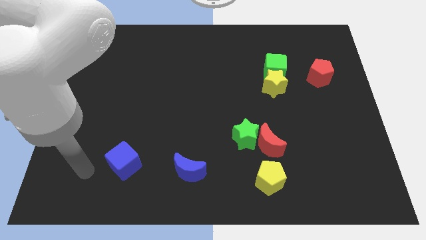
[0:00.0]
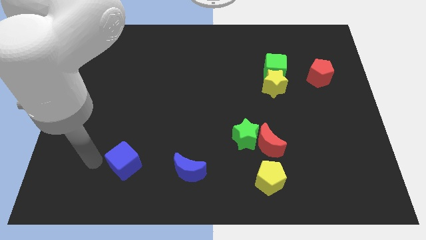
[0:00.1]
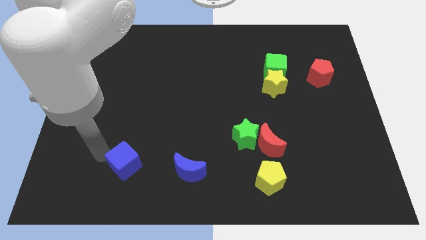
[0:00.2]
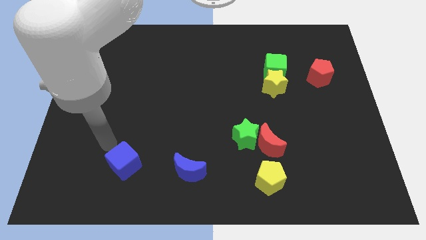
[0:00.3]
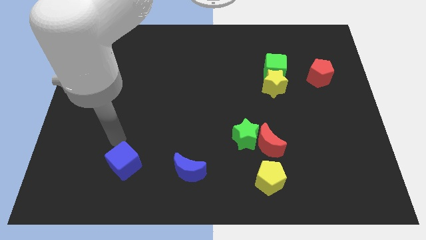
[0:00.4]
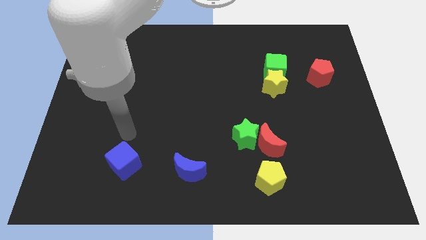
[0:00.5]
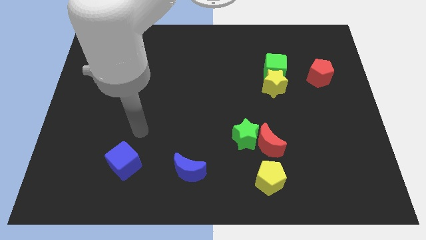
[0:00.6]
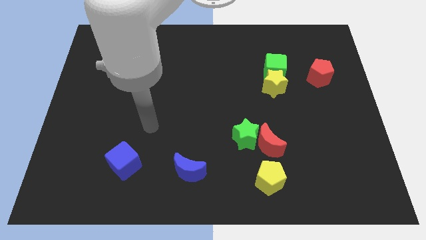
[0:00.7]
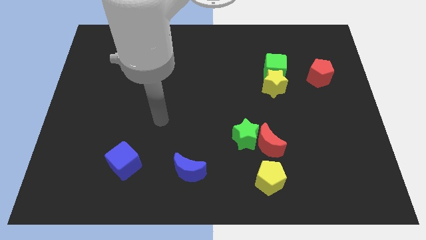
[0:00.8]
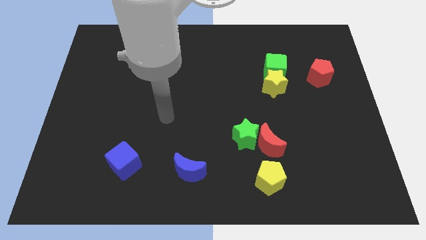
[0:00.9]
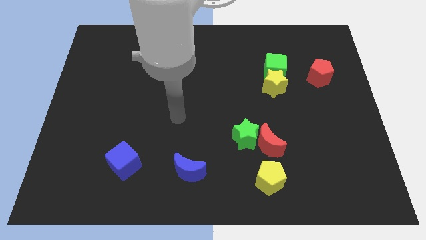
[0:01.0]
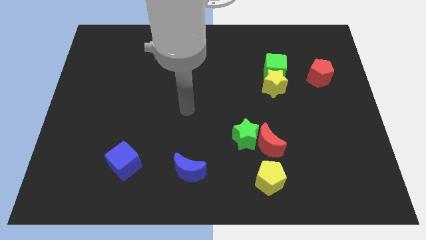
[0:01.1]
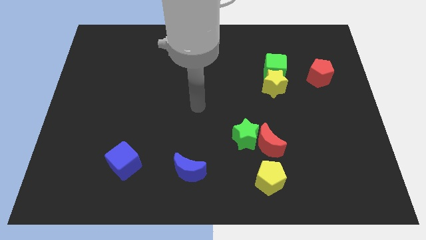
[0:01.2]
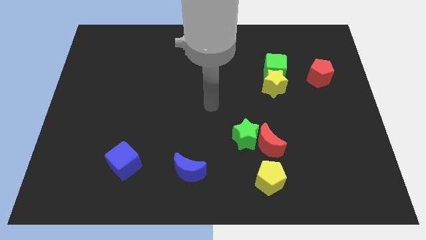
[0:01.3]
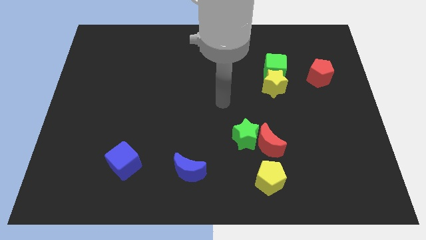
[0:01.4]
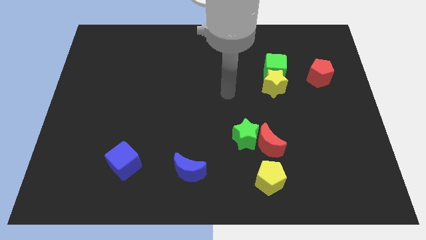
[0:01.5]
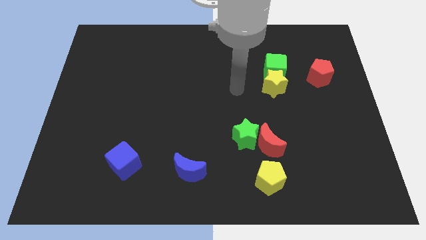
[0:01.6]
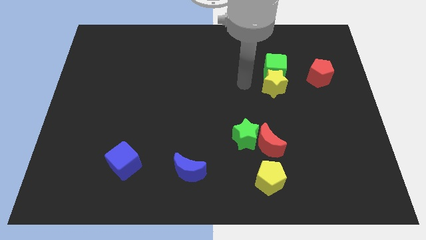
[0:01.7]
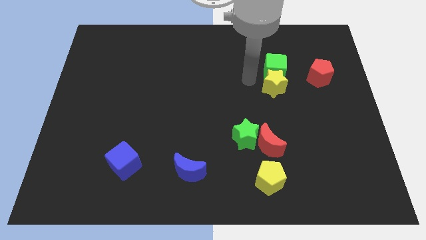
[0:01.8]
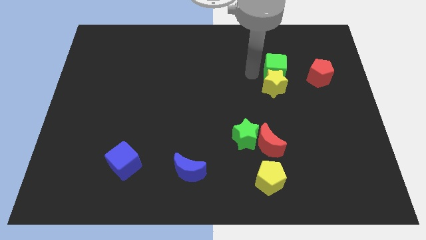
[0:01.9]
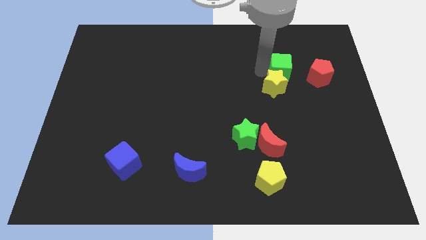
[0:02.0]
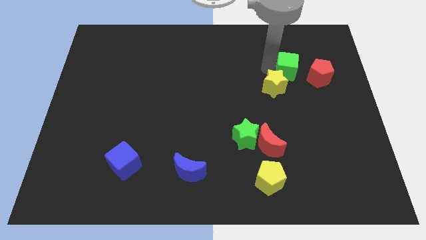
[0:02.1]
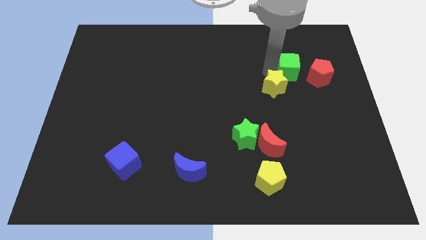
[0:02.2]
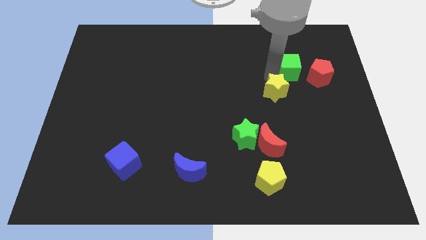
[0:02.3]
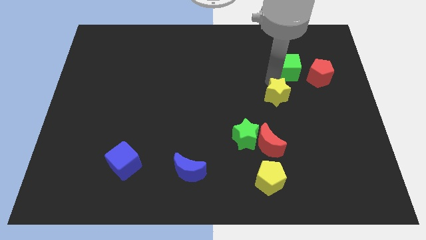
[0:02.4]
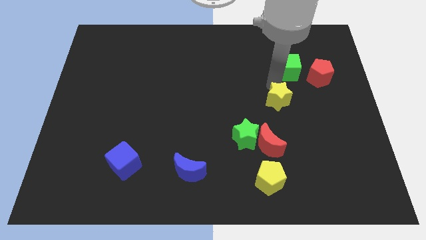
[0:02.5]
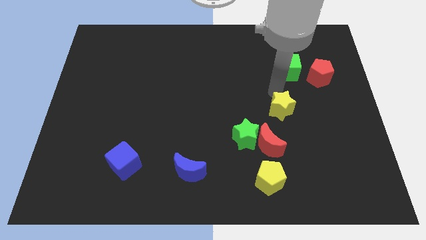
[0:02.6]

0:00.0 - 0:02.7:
move the yellow star down somewhat

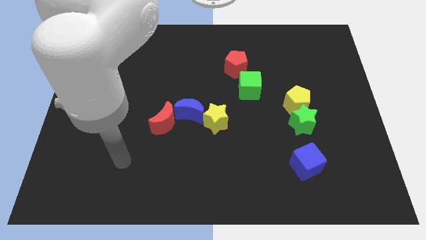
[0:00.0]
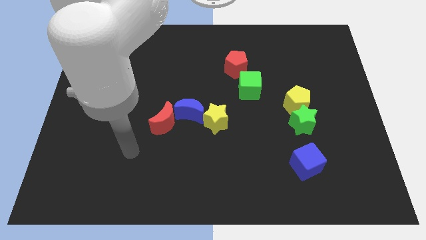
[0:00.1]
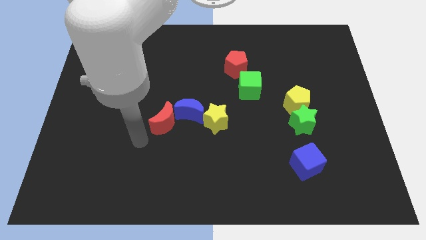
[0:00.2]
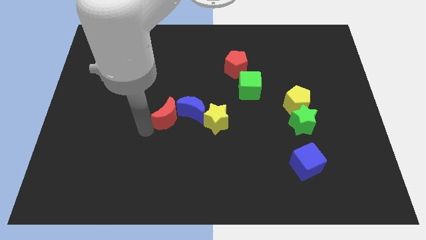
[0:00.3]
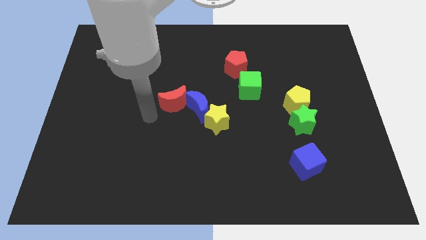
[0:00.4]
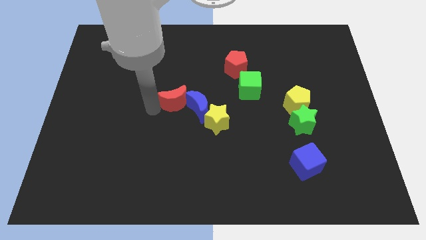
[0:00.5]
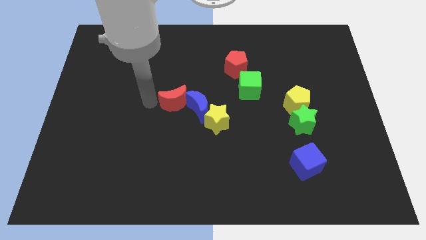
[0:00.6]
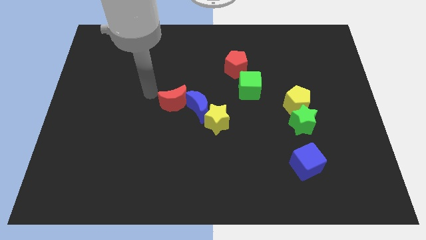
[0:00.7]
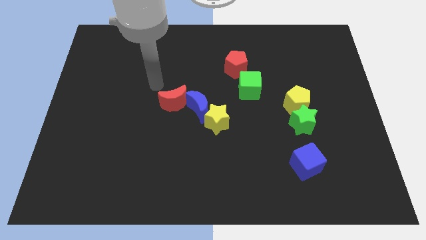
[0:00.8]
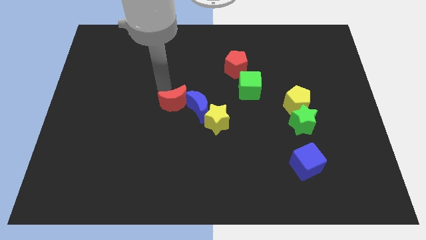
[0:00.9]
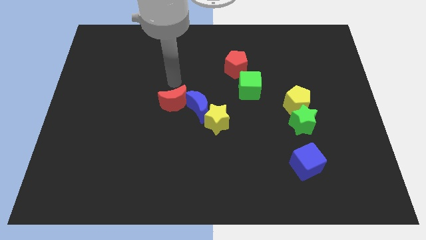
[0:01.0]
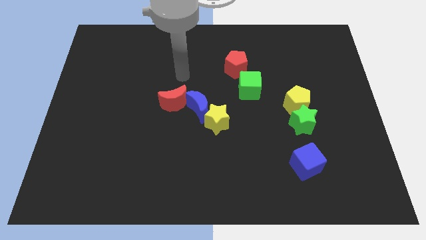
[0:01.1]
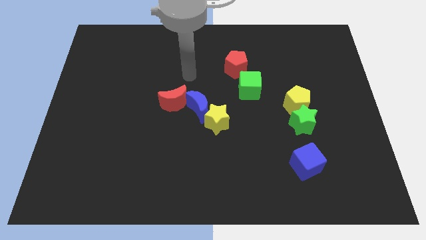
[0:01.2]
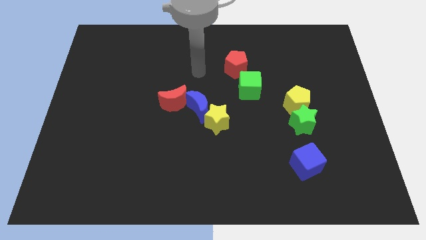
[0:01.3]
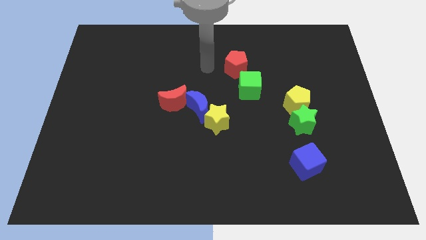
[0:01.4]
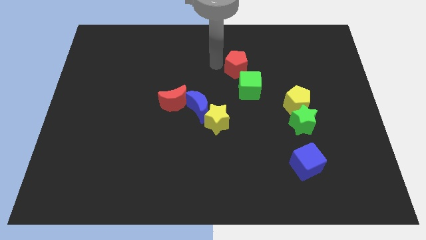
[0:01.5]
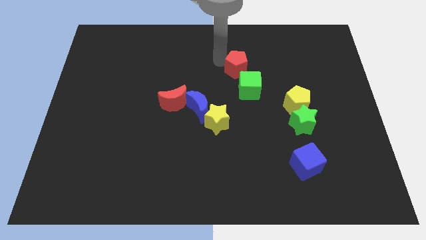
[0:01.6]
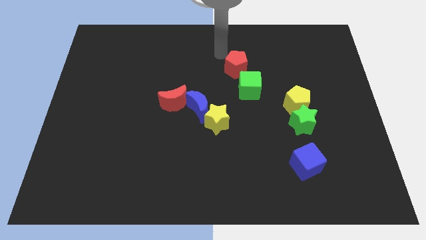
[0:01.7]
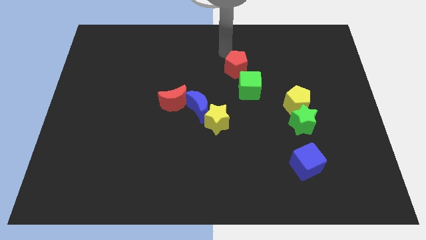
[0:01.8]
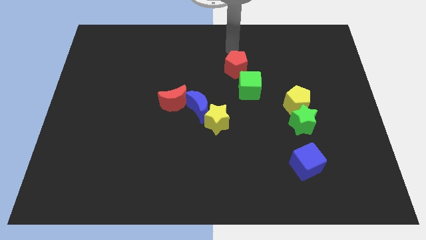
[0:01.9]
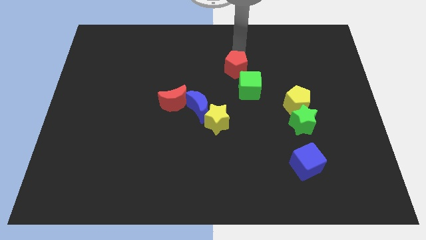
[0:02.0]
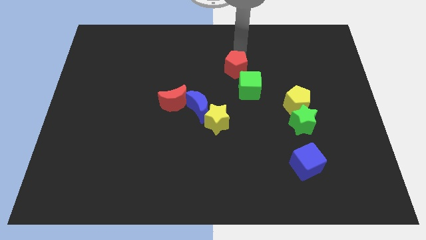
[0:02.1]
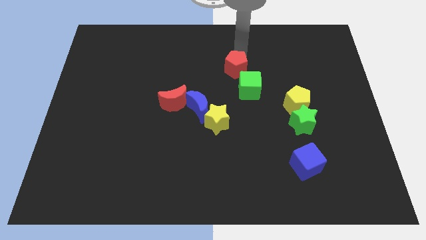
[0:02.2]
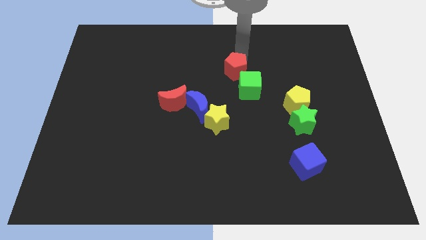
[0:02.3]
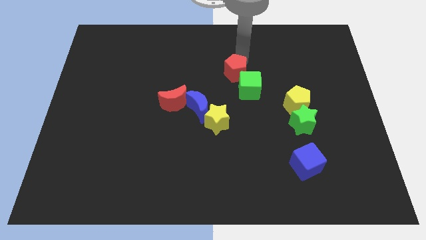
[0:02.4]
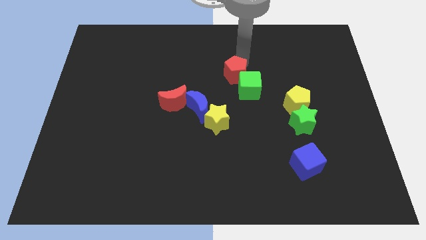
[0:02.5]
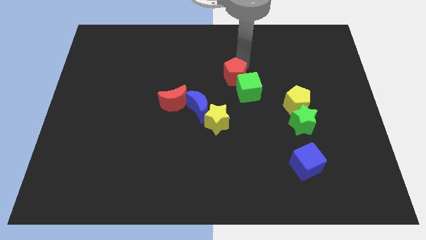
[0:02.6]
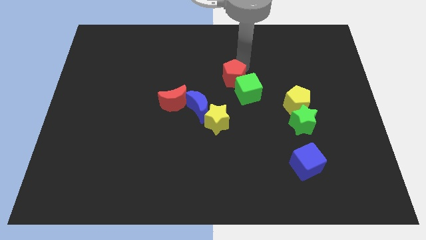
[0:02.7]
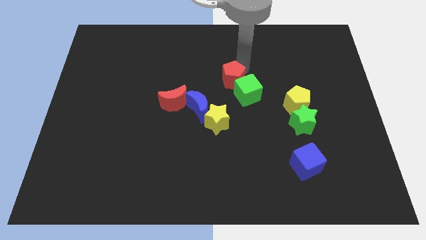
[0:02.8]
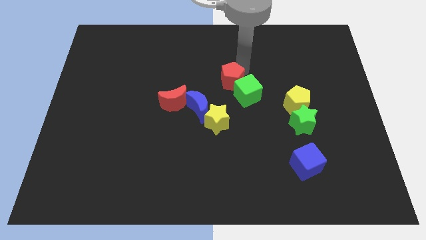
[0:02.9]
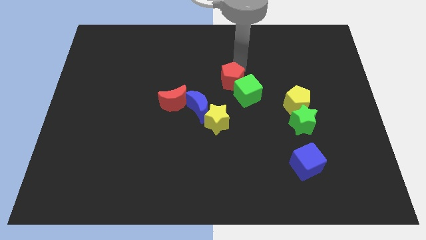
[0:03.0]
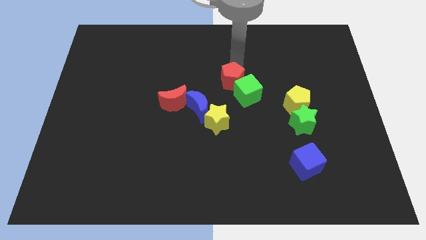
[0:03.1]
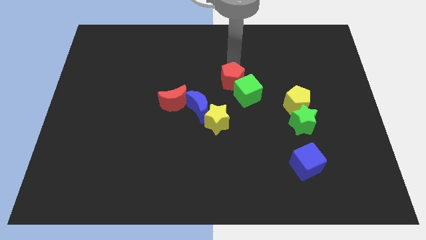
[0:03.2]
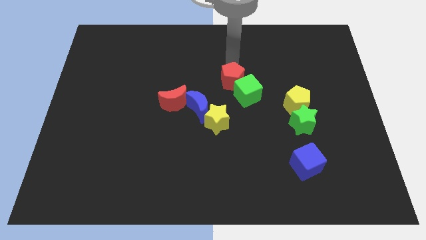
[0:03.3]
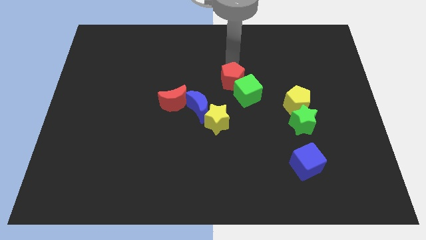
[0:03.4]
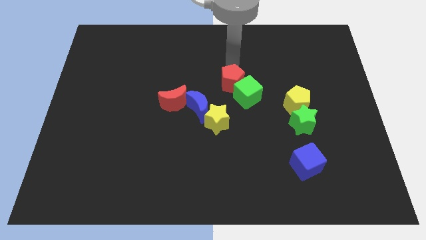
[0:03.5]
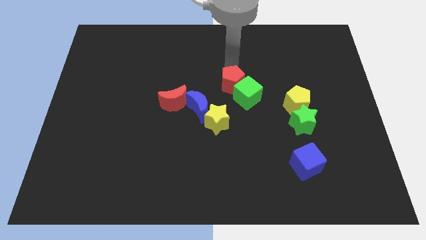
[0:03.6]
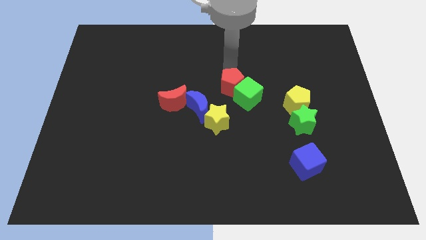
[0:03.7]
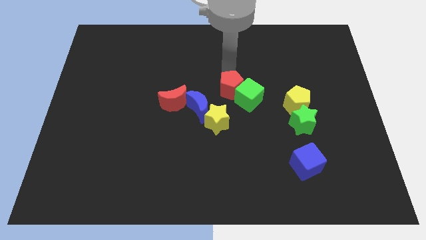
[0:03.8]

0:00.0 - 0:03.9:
move the red pentagon a little down

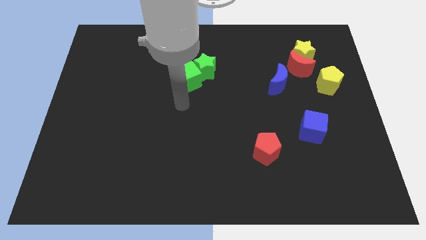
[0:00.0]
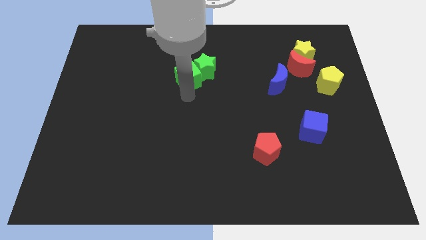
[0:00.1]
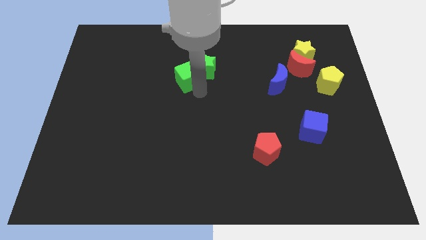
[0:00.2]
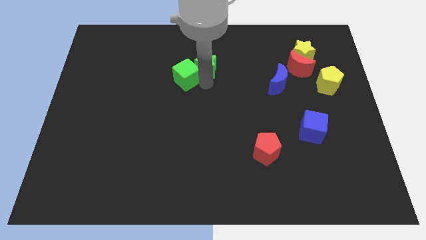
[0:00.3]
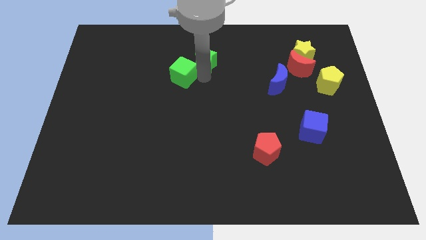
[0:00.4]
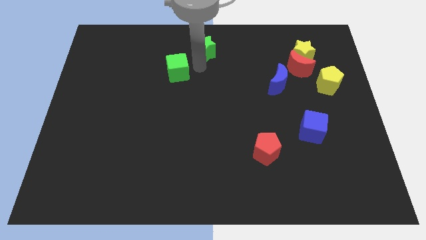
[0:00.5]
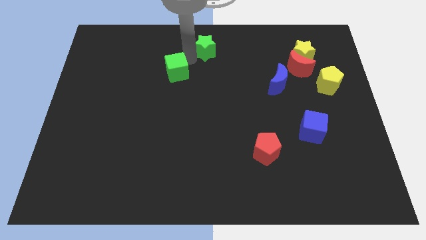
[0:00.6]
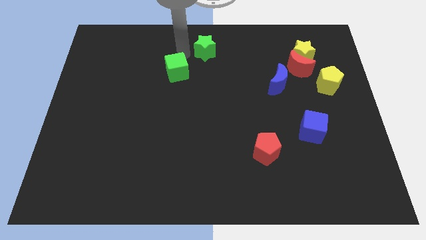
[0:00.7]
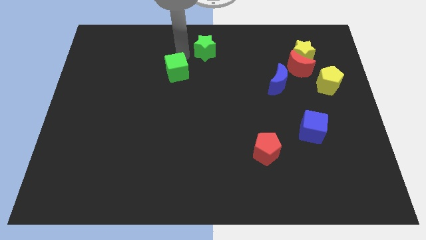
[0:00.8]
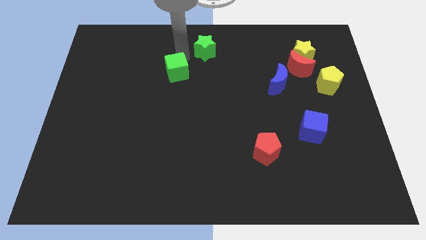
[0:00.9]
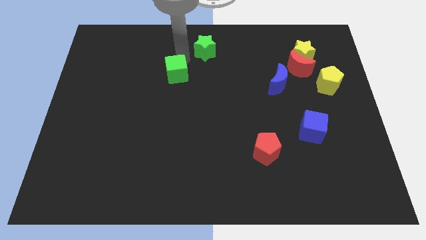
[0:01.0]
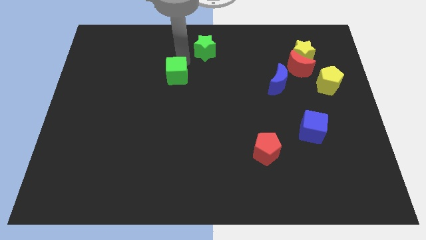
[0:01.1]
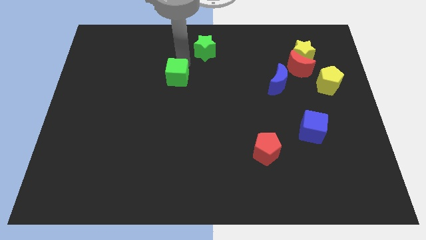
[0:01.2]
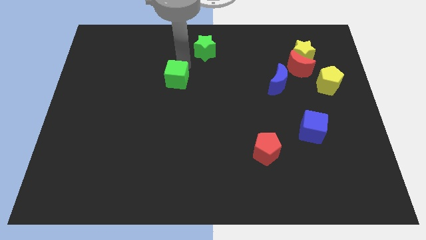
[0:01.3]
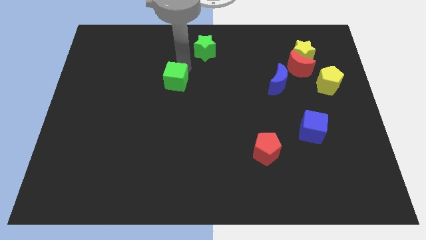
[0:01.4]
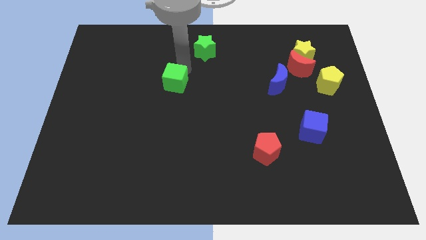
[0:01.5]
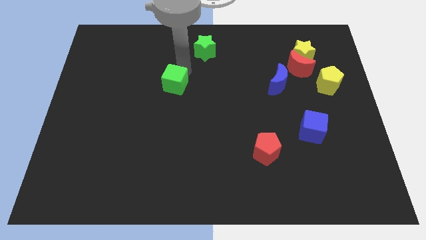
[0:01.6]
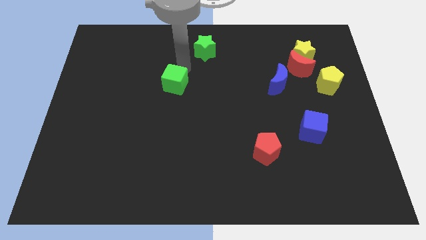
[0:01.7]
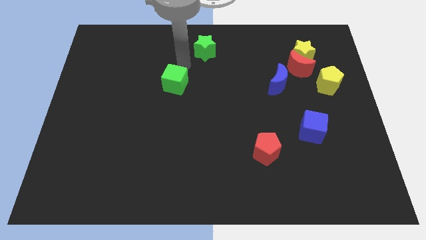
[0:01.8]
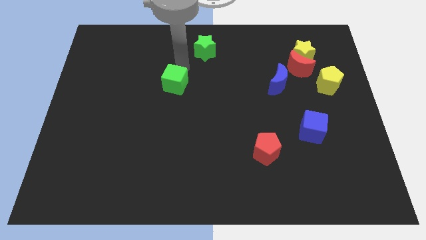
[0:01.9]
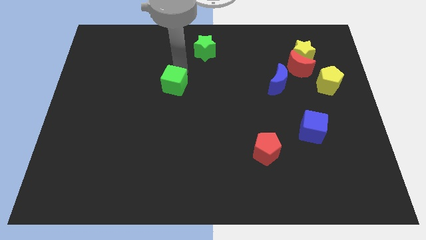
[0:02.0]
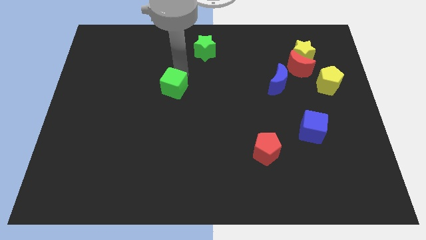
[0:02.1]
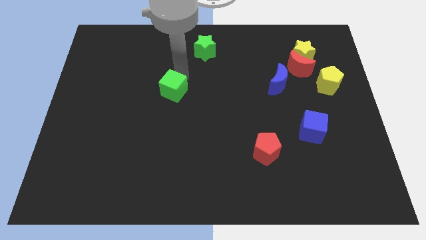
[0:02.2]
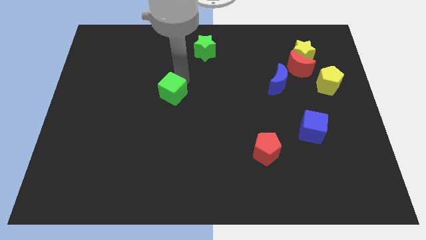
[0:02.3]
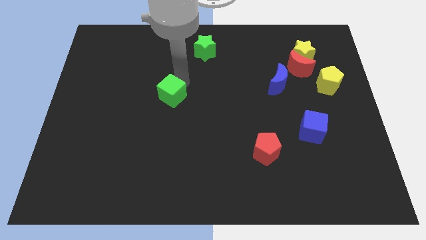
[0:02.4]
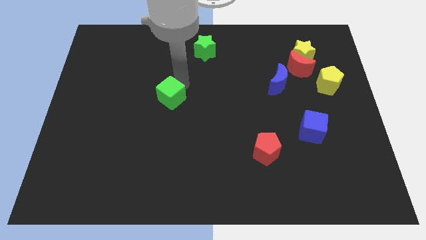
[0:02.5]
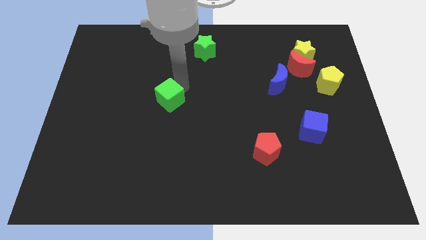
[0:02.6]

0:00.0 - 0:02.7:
slightly push the green cube downwards and left
